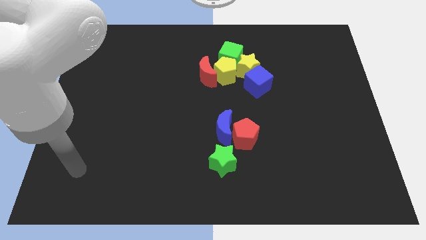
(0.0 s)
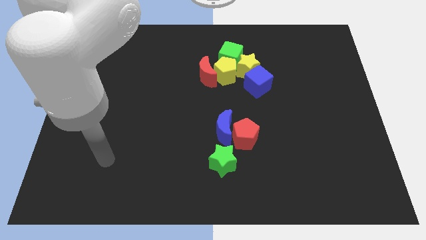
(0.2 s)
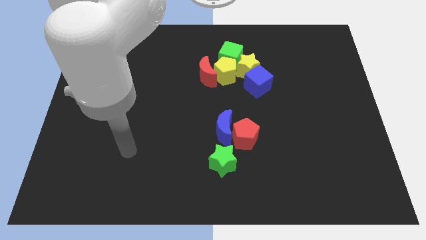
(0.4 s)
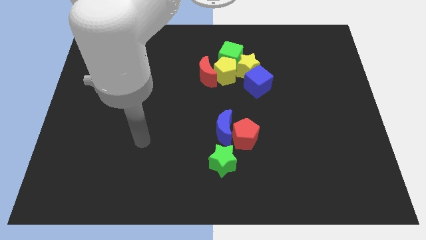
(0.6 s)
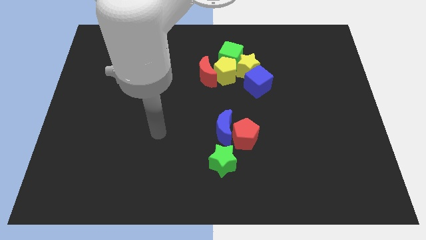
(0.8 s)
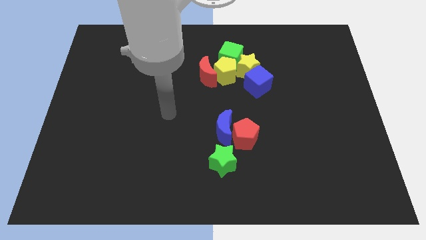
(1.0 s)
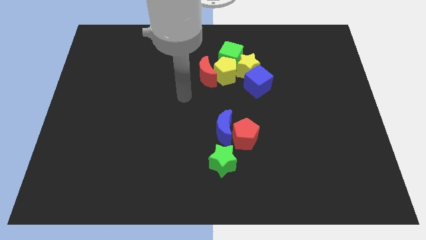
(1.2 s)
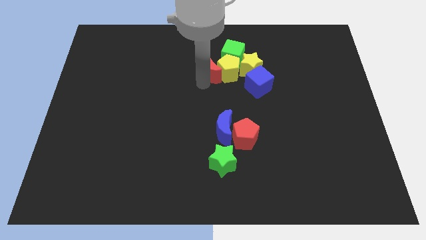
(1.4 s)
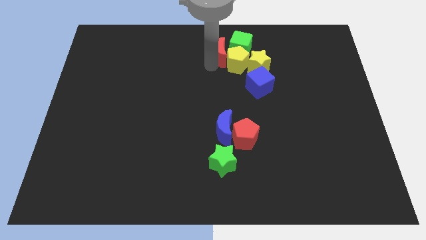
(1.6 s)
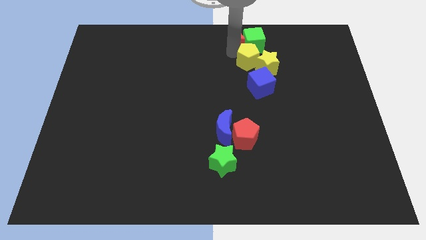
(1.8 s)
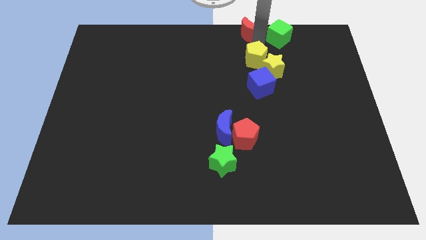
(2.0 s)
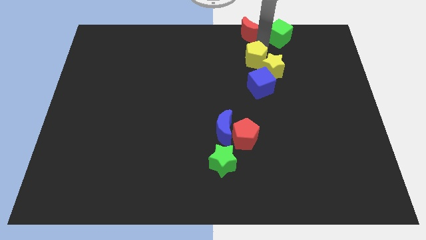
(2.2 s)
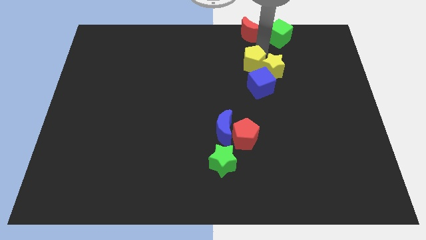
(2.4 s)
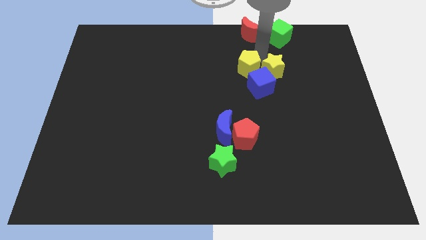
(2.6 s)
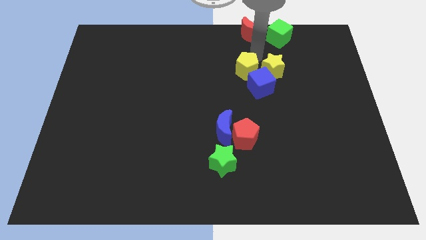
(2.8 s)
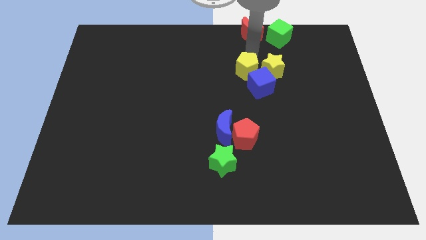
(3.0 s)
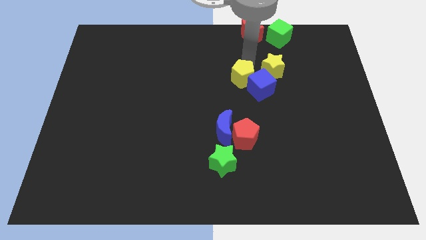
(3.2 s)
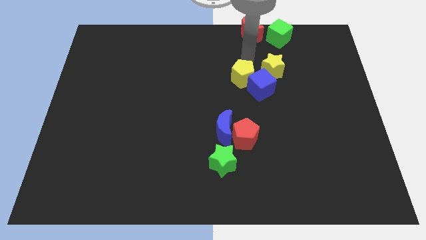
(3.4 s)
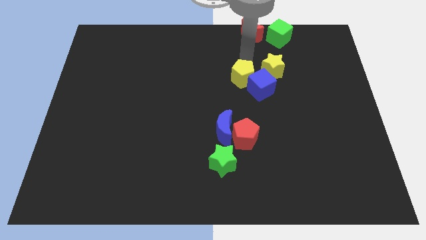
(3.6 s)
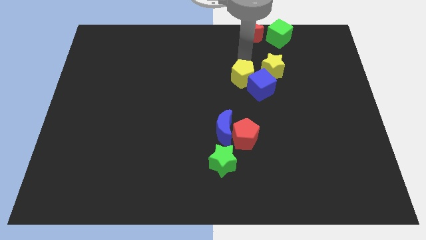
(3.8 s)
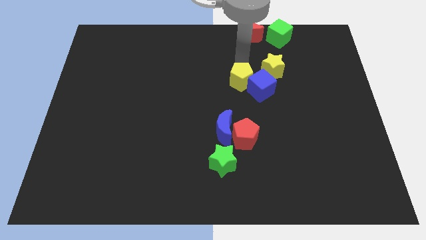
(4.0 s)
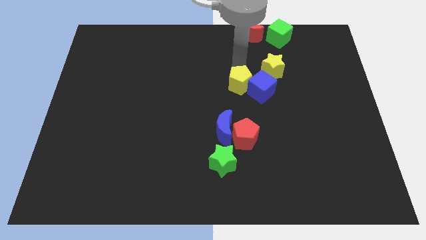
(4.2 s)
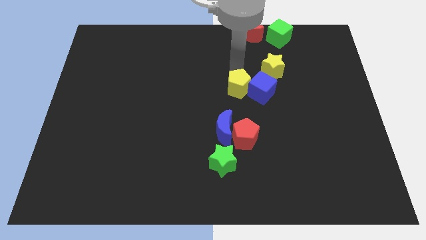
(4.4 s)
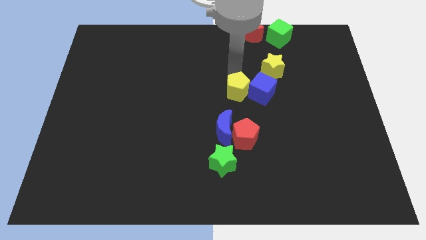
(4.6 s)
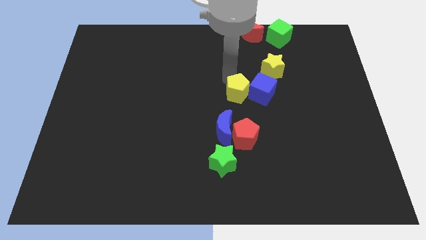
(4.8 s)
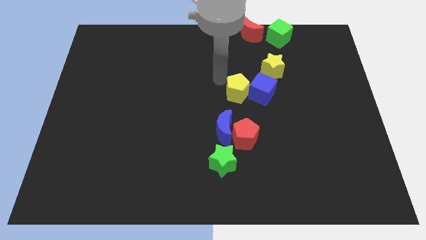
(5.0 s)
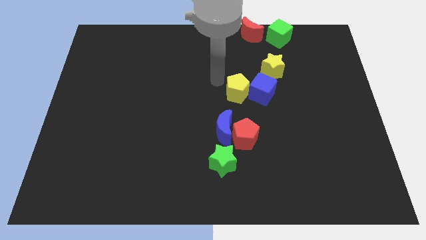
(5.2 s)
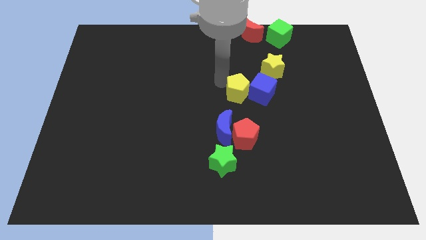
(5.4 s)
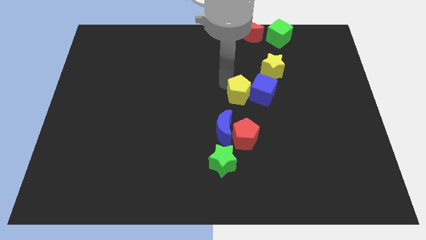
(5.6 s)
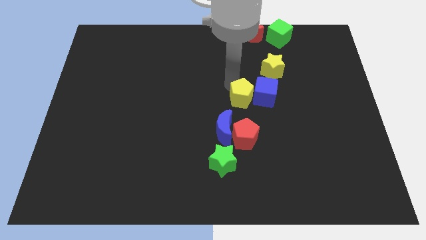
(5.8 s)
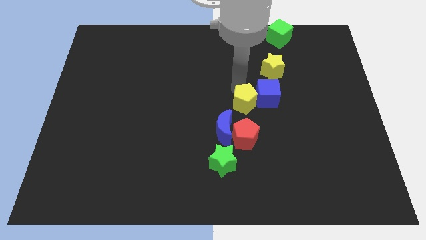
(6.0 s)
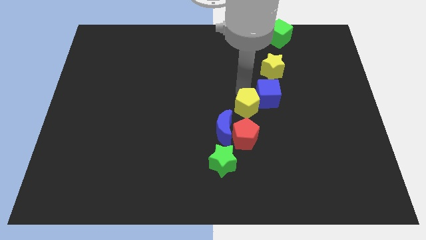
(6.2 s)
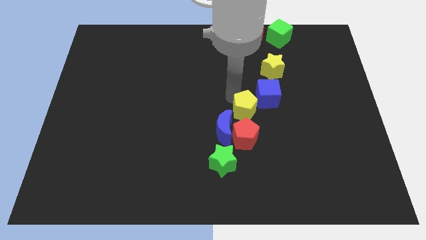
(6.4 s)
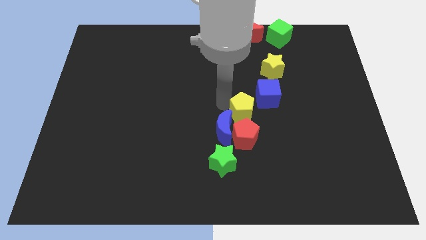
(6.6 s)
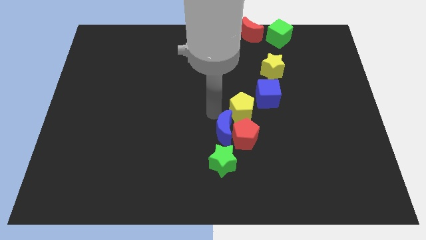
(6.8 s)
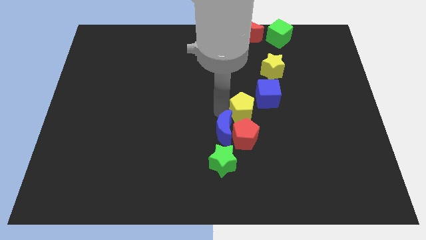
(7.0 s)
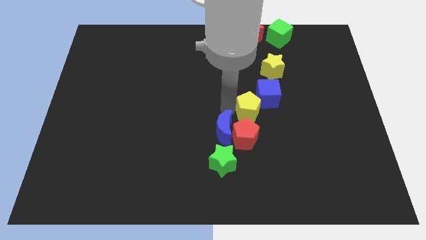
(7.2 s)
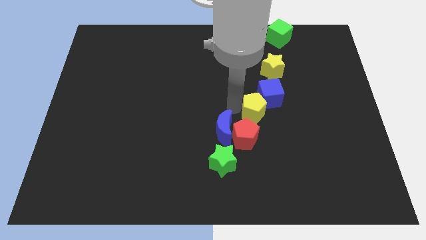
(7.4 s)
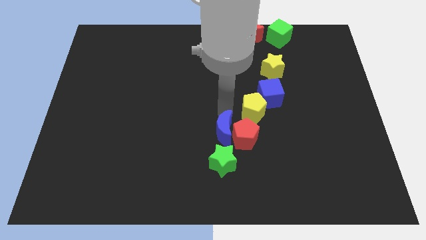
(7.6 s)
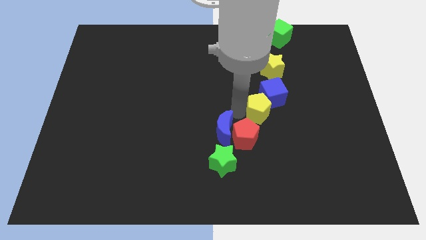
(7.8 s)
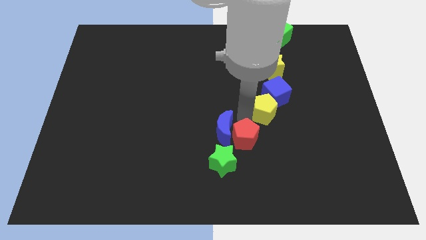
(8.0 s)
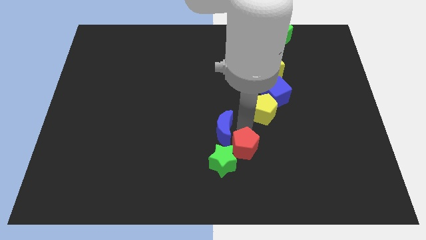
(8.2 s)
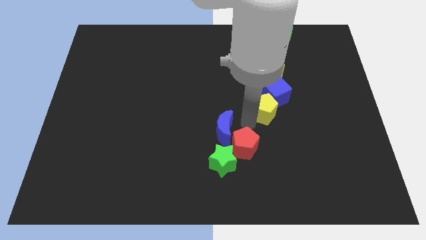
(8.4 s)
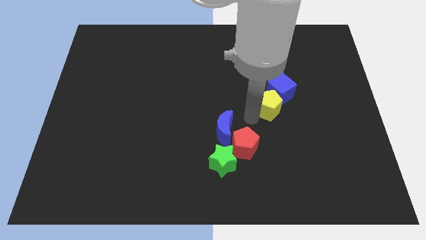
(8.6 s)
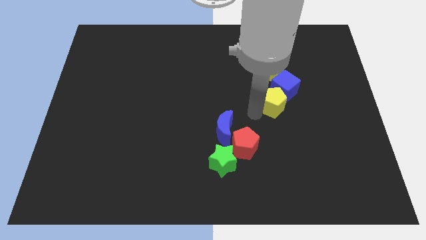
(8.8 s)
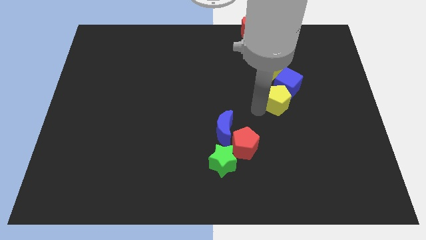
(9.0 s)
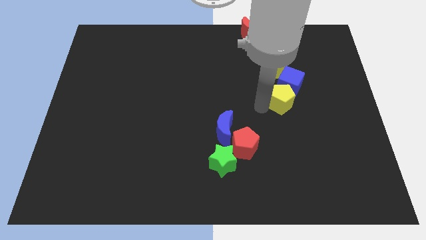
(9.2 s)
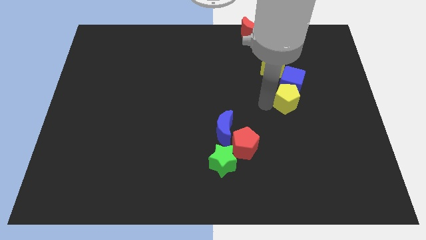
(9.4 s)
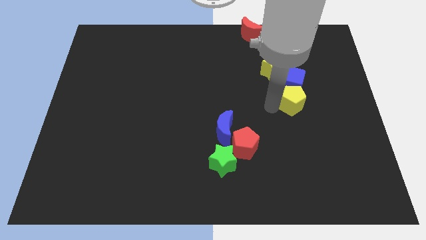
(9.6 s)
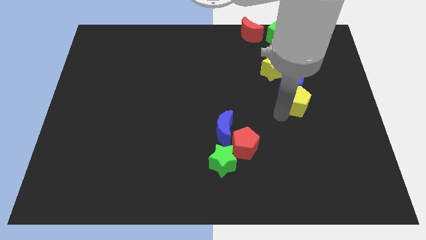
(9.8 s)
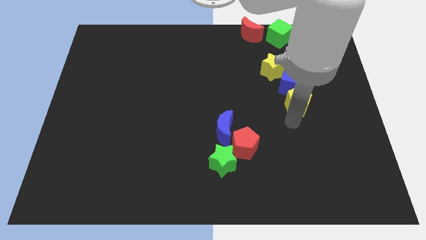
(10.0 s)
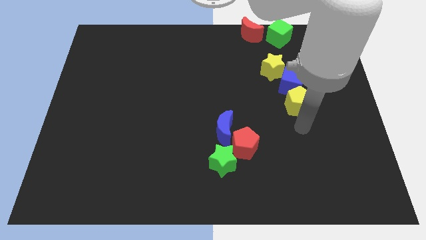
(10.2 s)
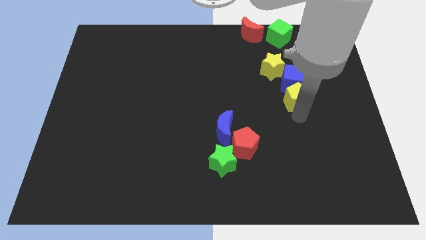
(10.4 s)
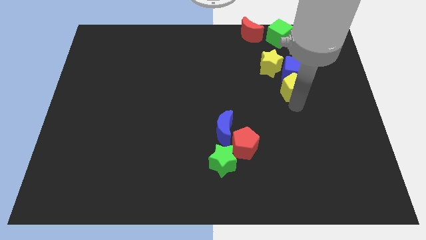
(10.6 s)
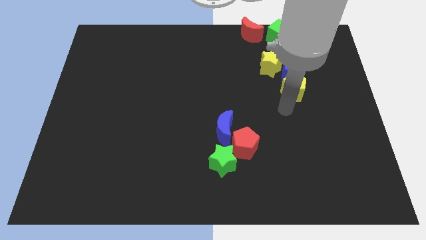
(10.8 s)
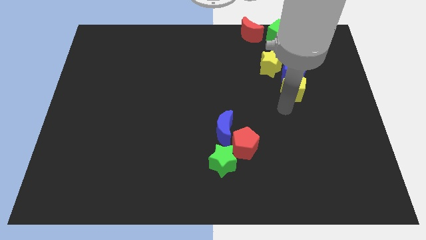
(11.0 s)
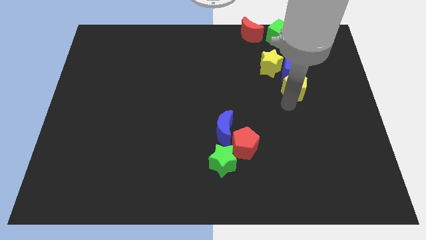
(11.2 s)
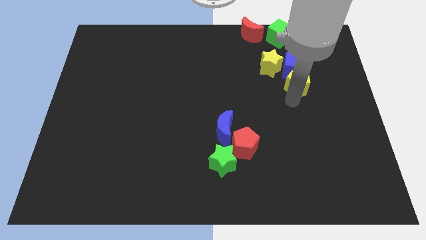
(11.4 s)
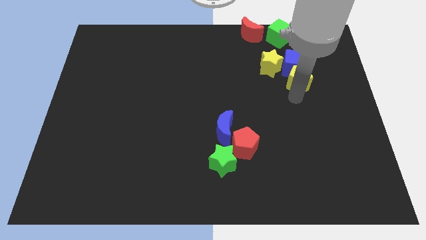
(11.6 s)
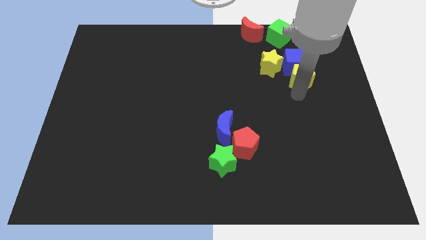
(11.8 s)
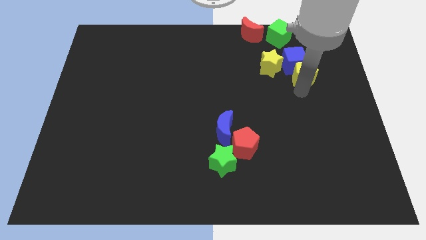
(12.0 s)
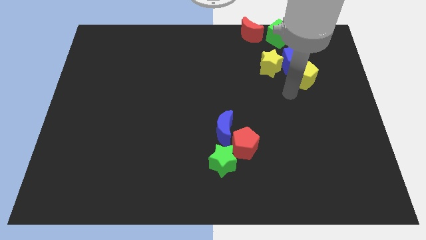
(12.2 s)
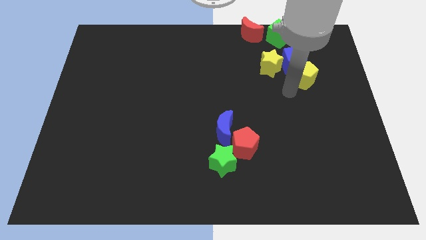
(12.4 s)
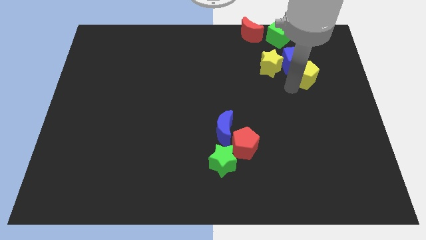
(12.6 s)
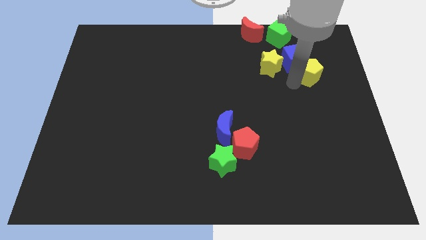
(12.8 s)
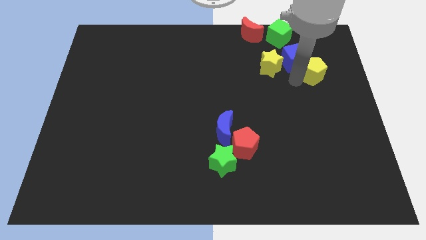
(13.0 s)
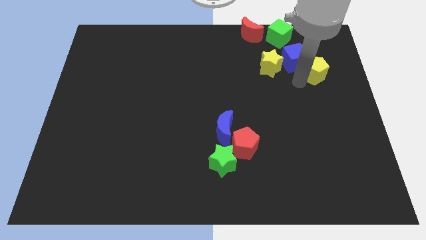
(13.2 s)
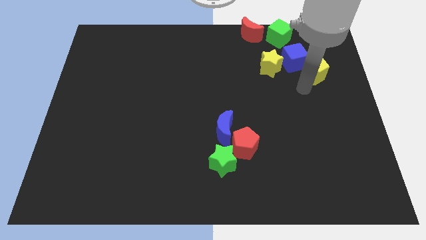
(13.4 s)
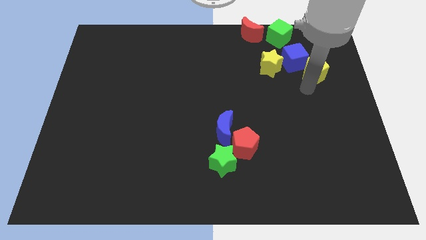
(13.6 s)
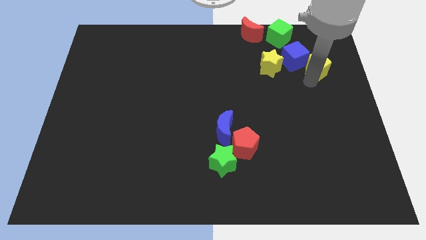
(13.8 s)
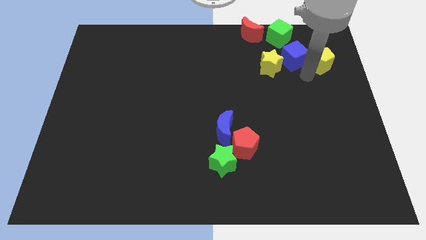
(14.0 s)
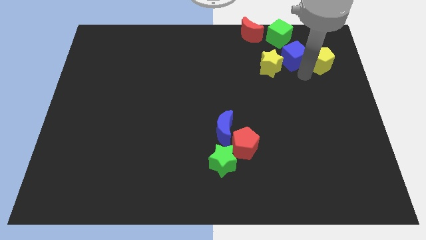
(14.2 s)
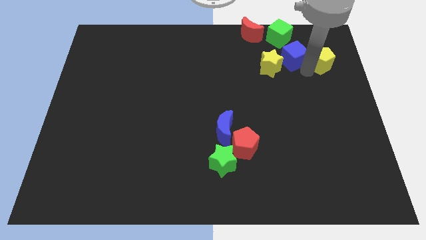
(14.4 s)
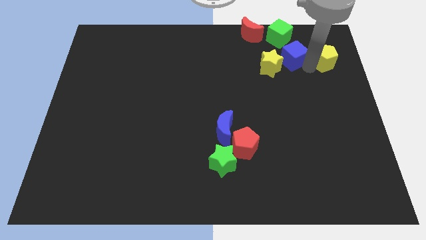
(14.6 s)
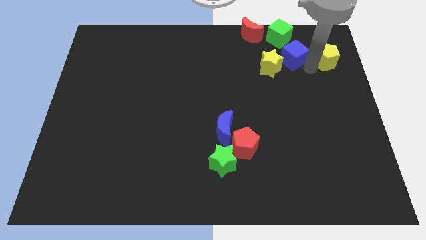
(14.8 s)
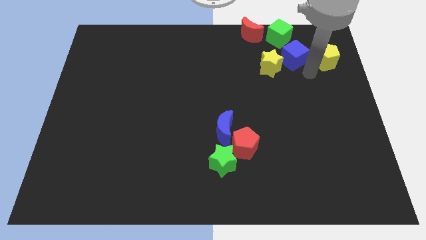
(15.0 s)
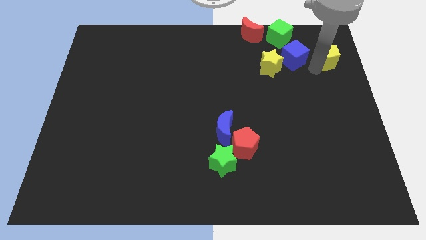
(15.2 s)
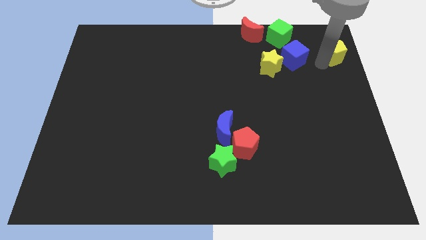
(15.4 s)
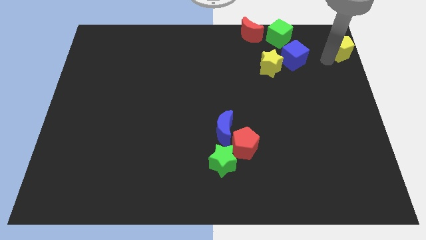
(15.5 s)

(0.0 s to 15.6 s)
put the yellow pentagon to the top right
